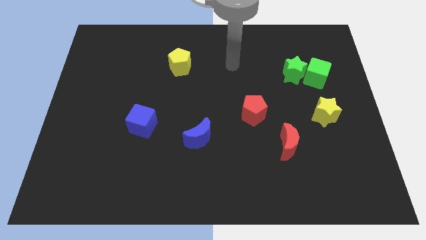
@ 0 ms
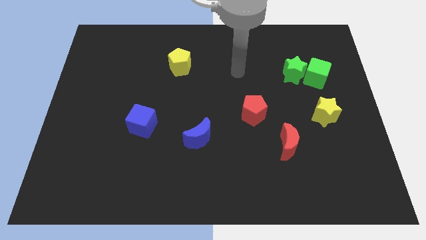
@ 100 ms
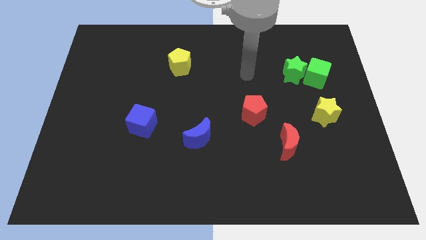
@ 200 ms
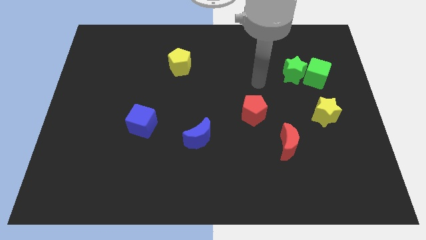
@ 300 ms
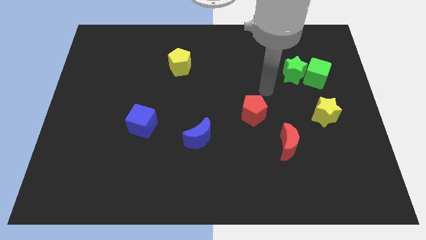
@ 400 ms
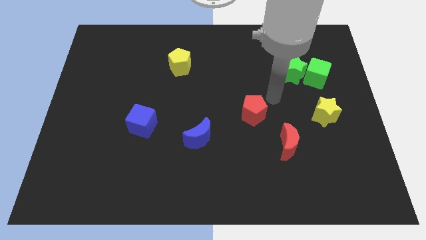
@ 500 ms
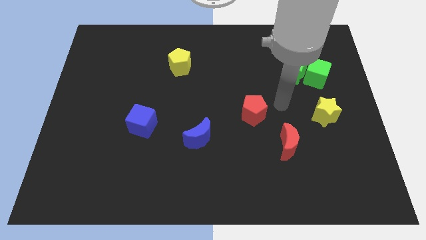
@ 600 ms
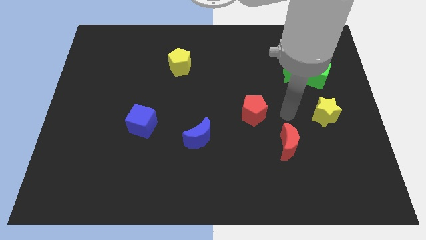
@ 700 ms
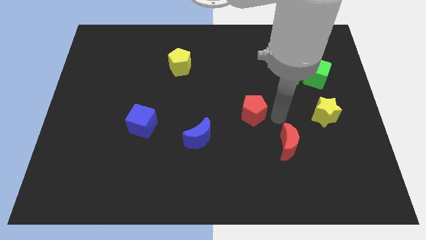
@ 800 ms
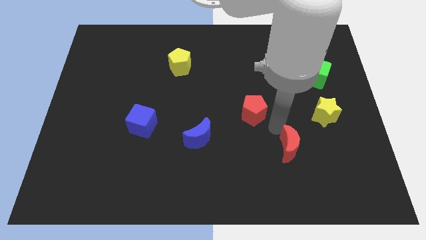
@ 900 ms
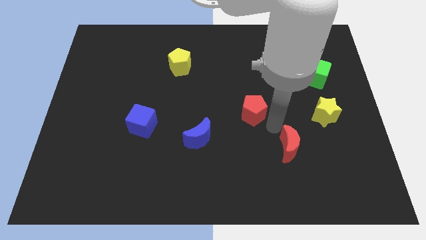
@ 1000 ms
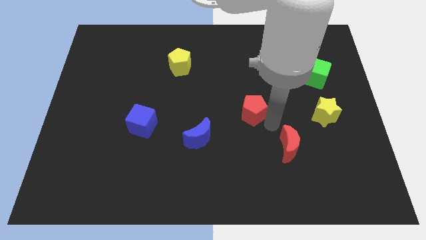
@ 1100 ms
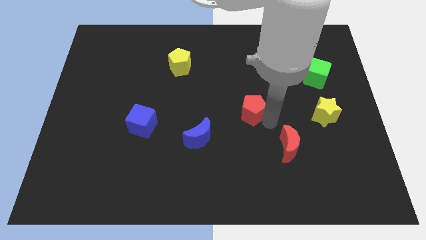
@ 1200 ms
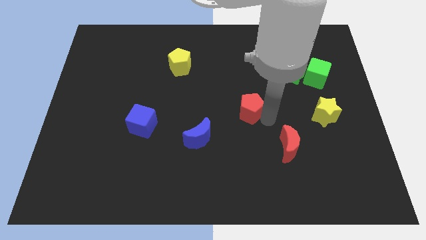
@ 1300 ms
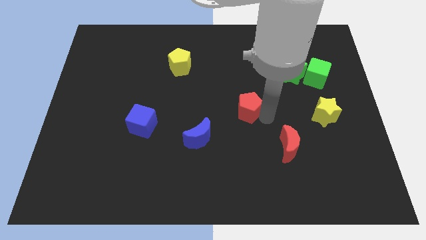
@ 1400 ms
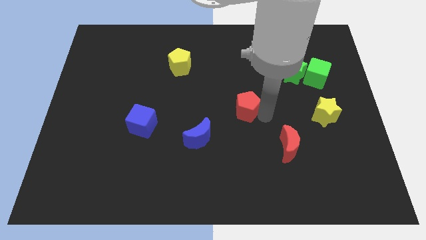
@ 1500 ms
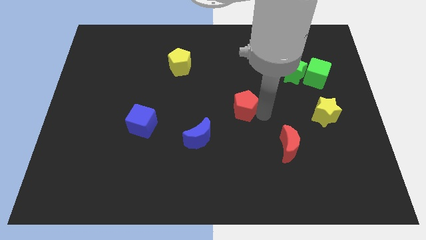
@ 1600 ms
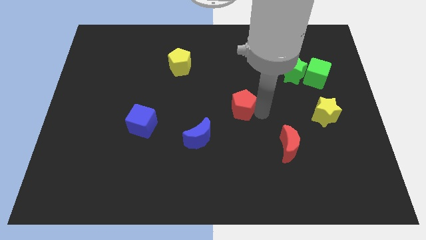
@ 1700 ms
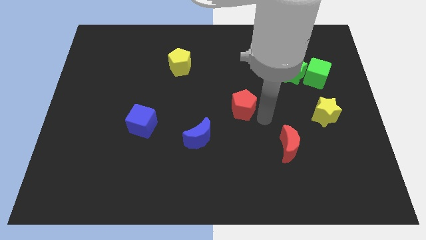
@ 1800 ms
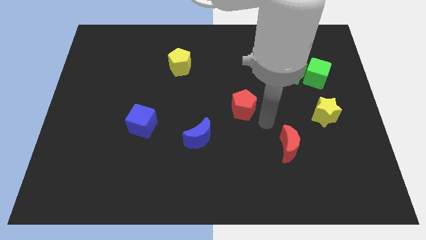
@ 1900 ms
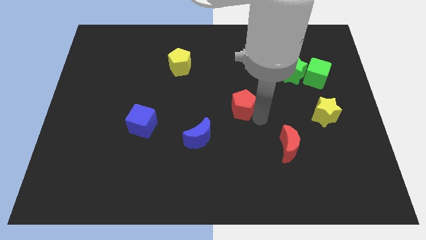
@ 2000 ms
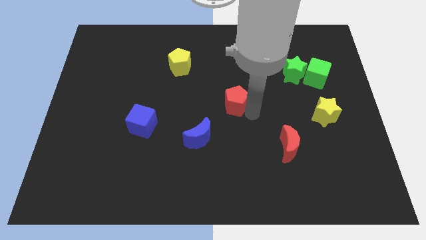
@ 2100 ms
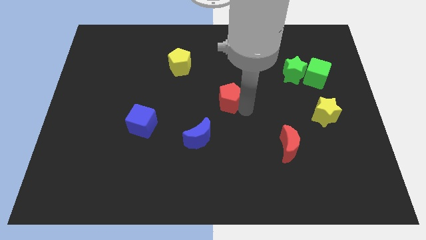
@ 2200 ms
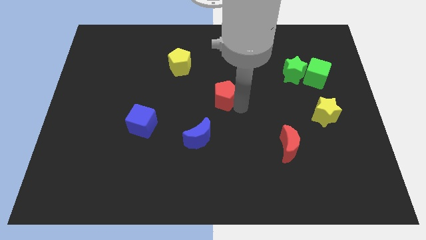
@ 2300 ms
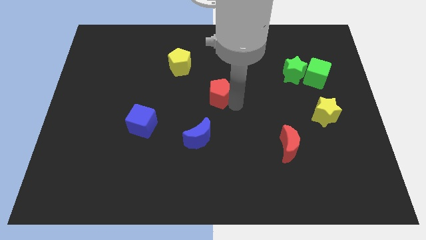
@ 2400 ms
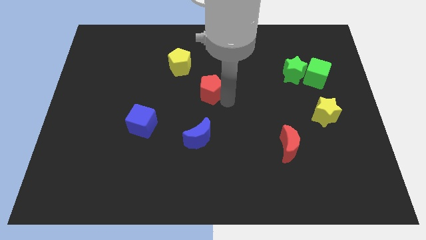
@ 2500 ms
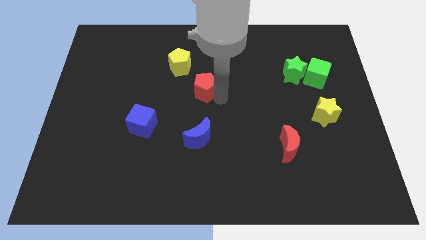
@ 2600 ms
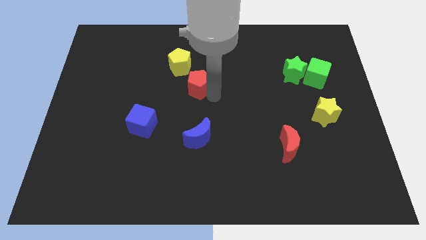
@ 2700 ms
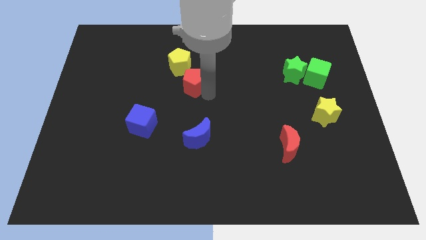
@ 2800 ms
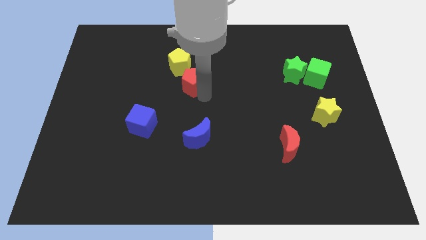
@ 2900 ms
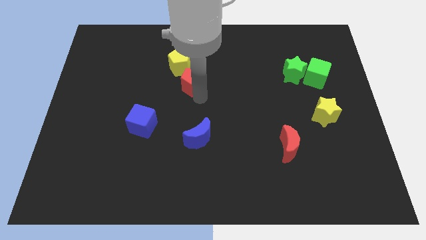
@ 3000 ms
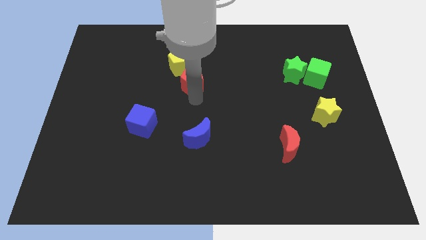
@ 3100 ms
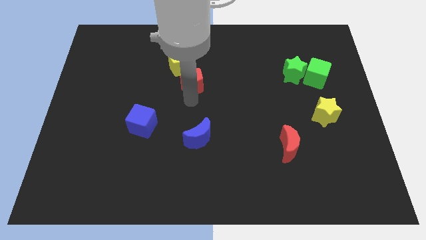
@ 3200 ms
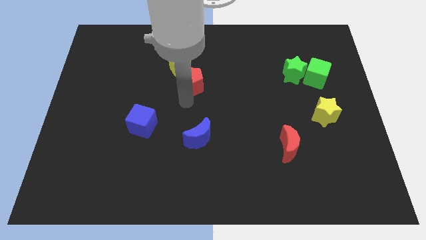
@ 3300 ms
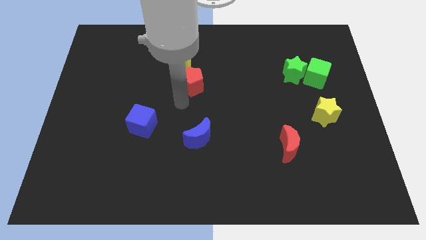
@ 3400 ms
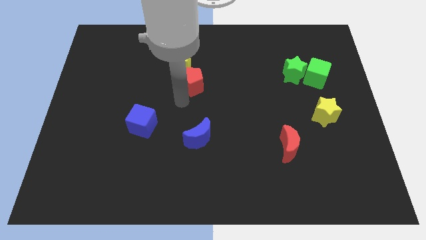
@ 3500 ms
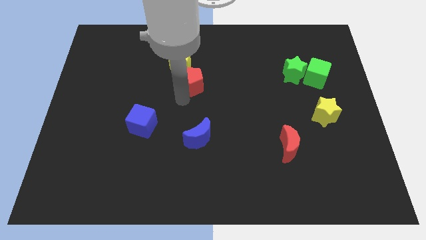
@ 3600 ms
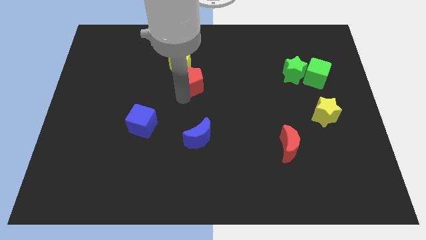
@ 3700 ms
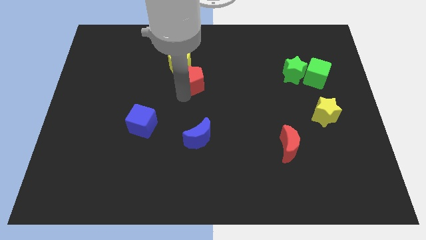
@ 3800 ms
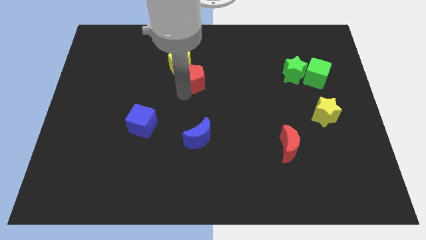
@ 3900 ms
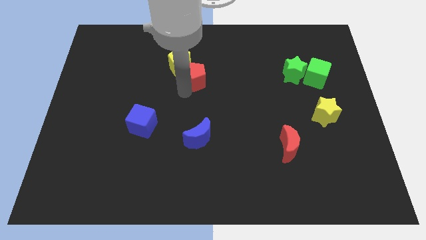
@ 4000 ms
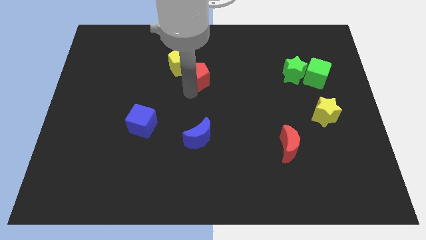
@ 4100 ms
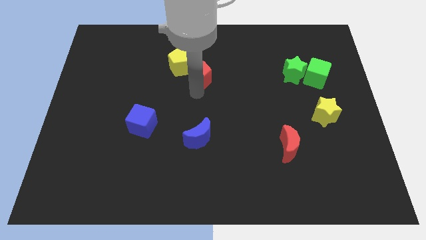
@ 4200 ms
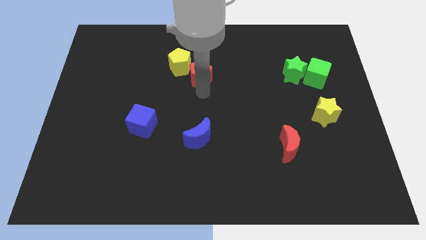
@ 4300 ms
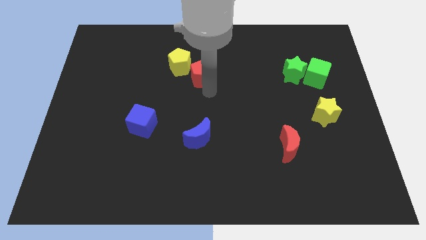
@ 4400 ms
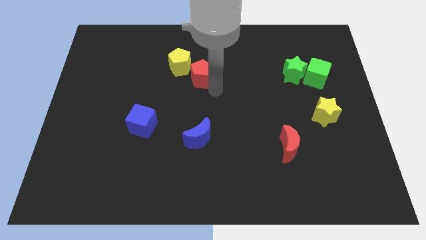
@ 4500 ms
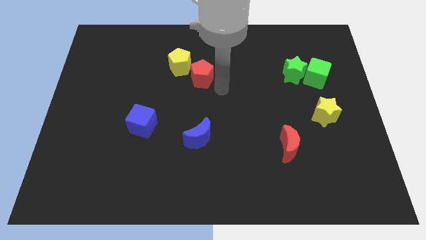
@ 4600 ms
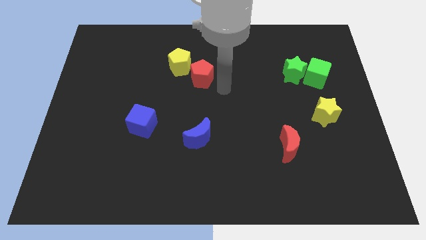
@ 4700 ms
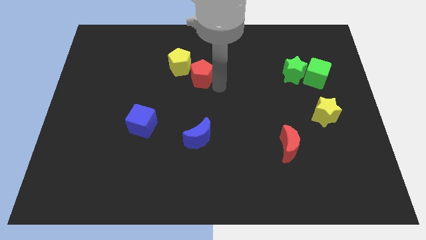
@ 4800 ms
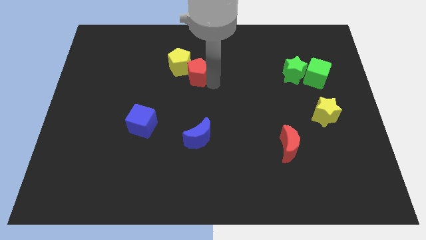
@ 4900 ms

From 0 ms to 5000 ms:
put the red pentagon next to the yellow pentagon

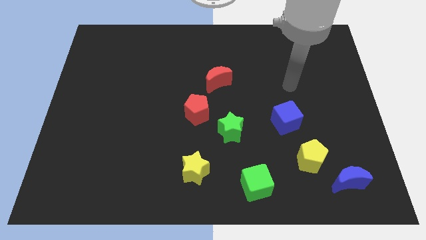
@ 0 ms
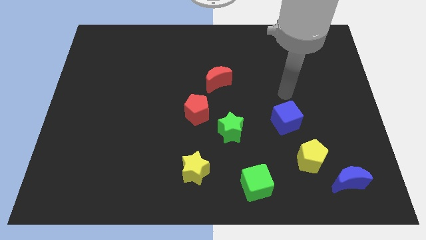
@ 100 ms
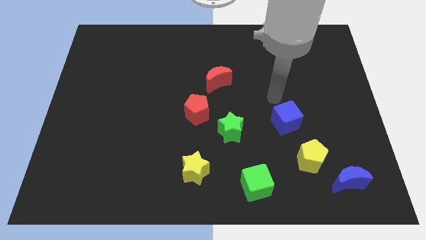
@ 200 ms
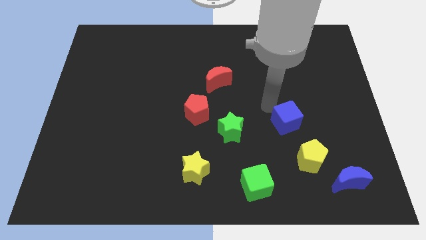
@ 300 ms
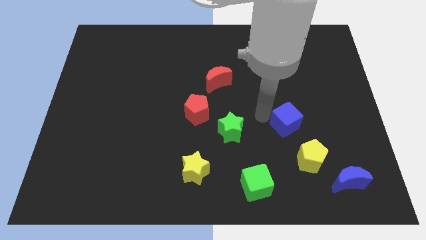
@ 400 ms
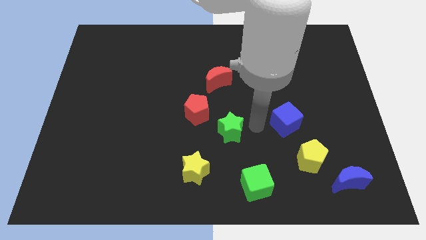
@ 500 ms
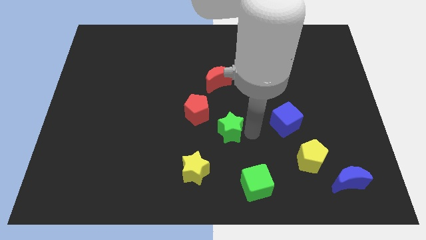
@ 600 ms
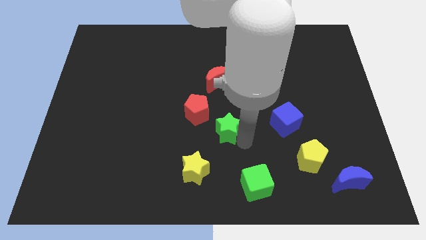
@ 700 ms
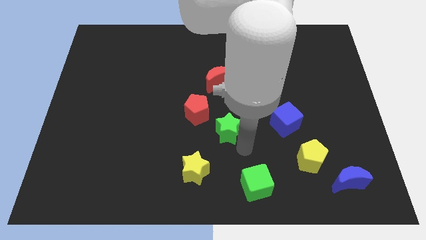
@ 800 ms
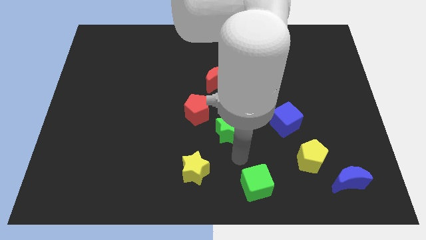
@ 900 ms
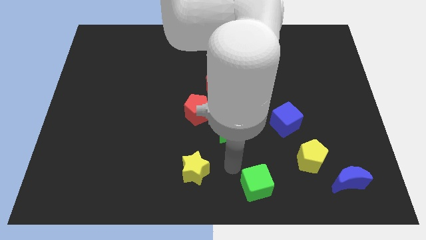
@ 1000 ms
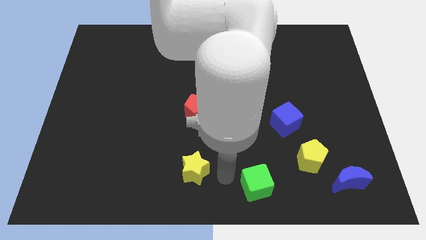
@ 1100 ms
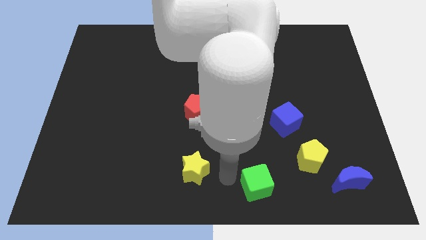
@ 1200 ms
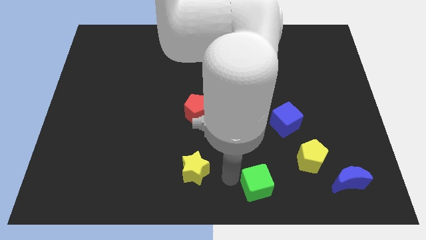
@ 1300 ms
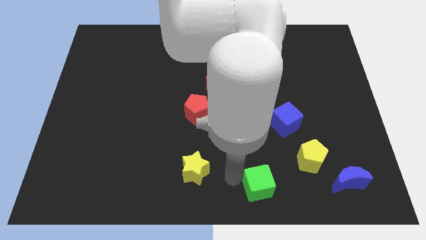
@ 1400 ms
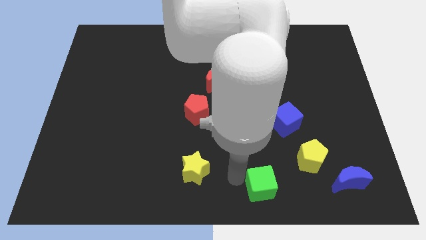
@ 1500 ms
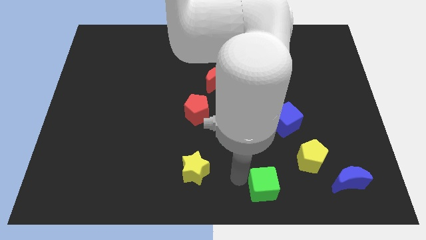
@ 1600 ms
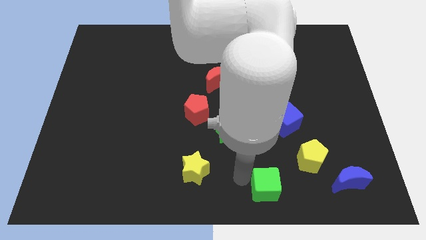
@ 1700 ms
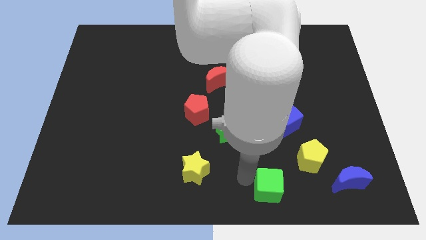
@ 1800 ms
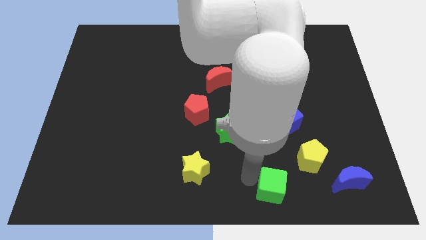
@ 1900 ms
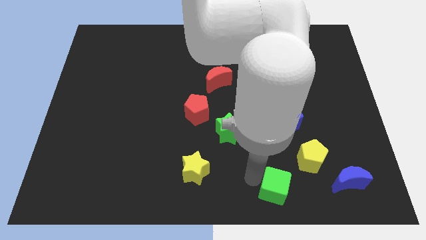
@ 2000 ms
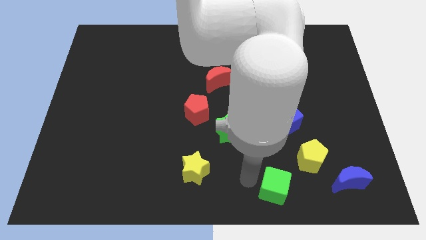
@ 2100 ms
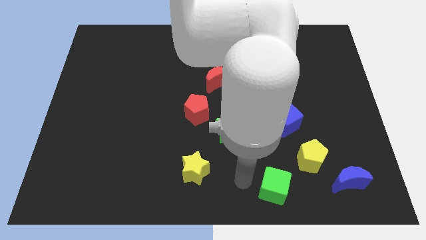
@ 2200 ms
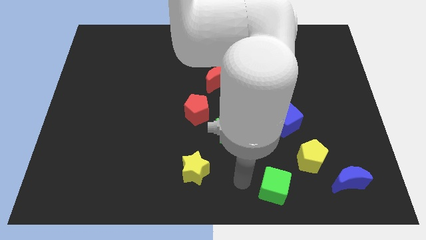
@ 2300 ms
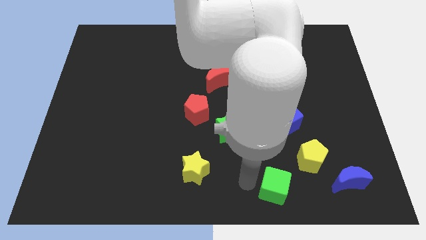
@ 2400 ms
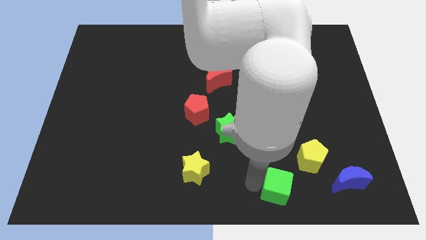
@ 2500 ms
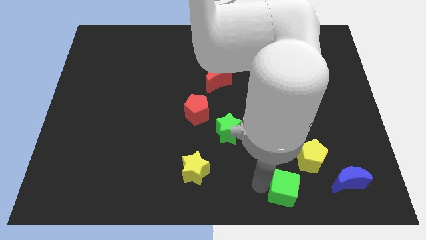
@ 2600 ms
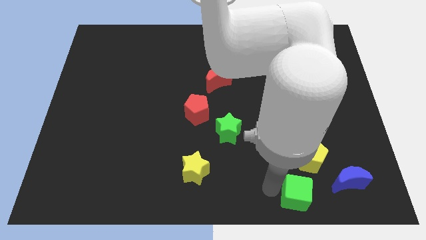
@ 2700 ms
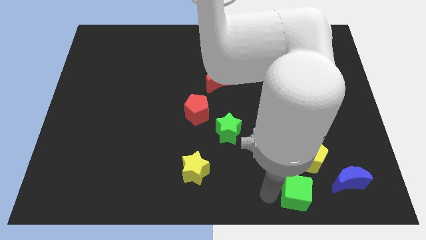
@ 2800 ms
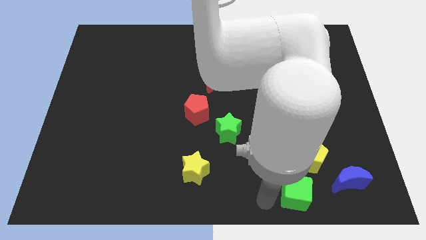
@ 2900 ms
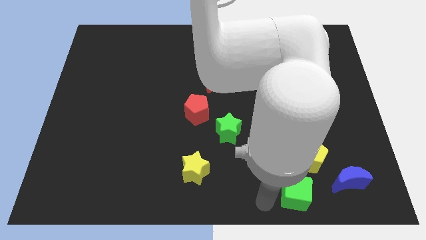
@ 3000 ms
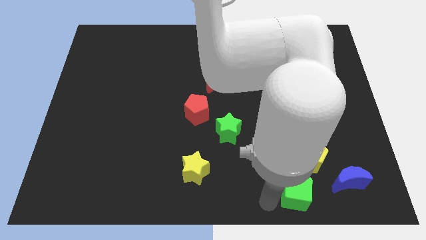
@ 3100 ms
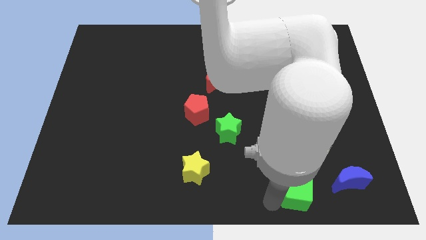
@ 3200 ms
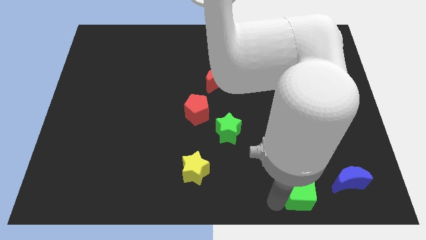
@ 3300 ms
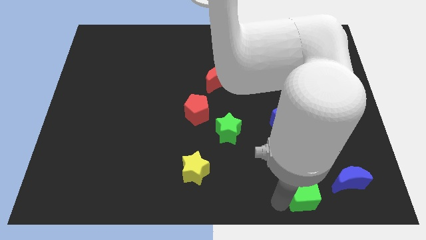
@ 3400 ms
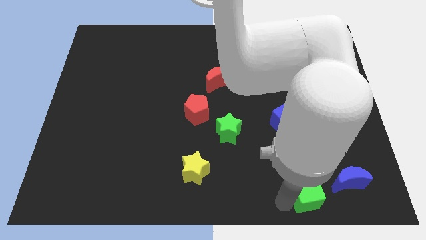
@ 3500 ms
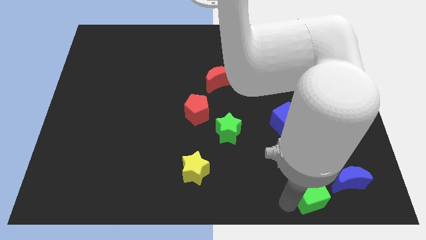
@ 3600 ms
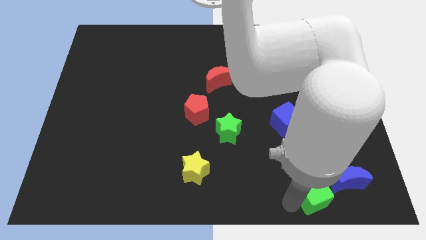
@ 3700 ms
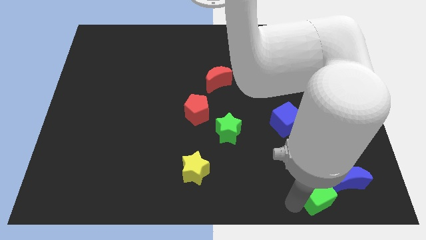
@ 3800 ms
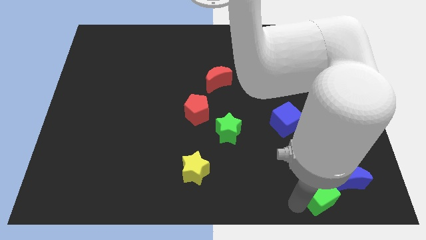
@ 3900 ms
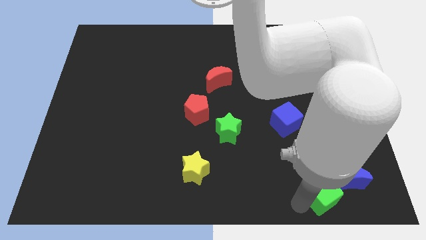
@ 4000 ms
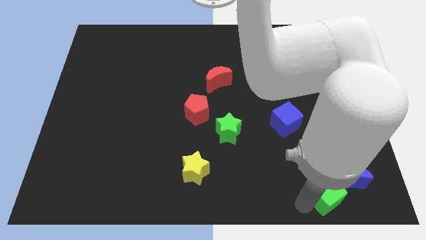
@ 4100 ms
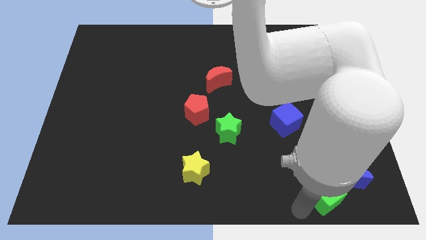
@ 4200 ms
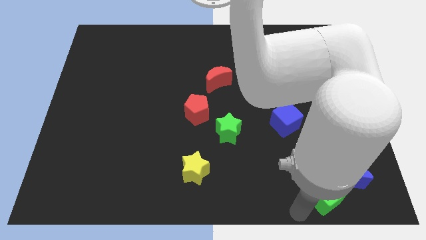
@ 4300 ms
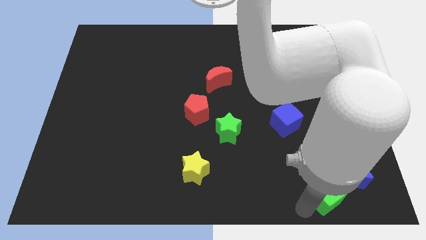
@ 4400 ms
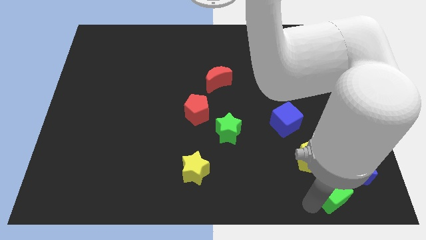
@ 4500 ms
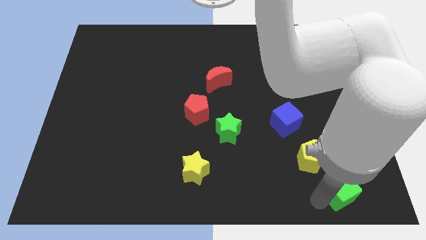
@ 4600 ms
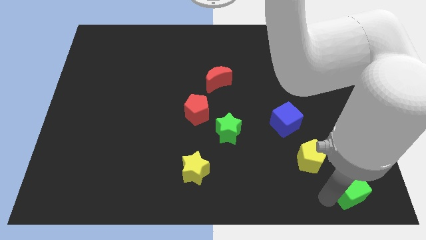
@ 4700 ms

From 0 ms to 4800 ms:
put the green cube towards the blue moon
